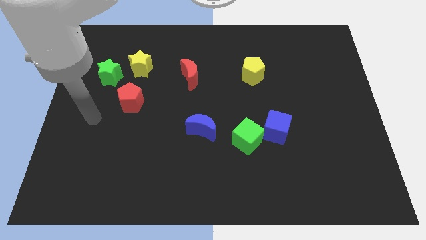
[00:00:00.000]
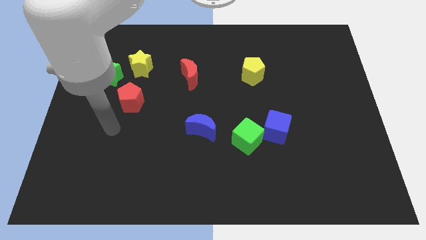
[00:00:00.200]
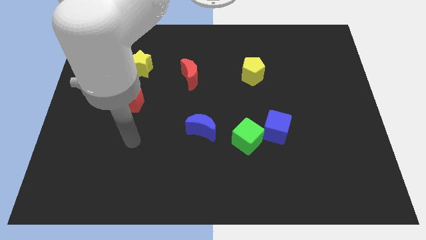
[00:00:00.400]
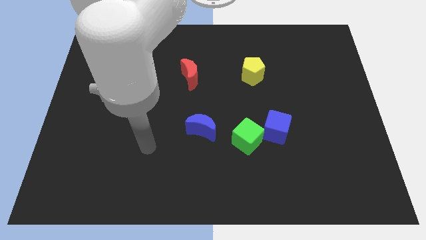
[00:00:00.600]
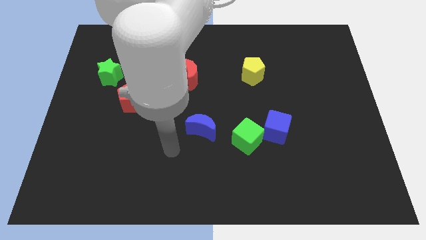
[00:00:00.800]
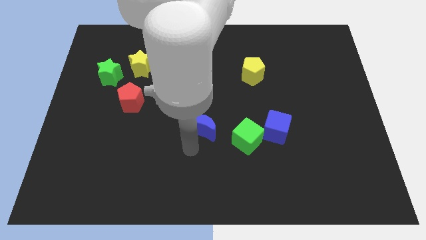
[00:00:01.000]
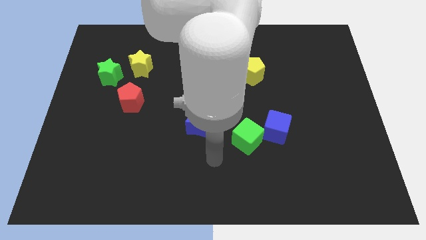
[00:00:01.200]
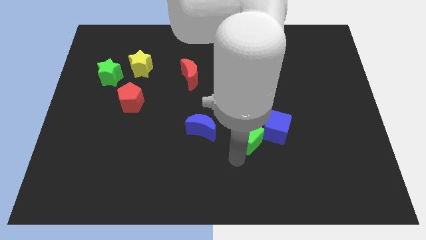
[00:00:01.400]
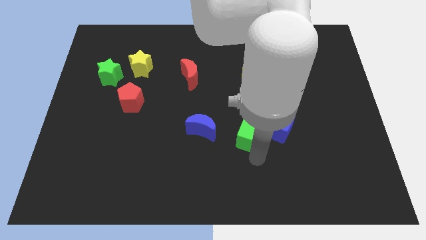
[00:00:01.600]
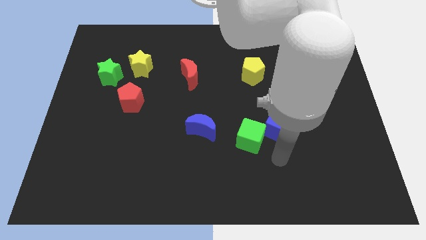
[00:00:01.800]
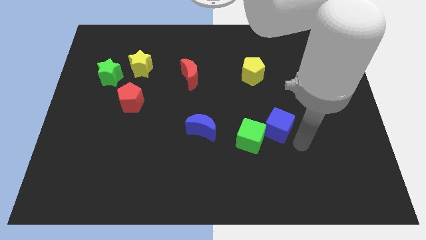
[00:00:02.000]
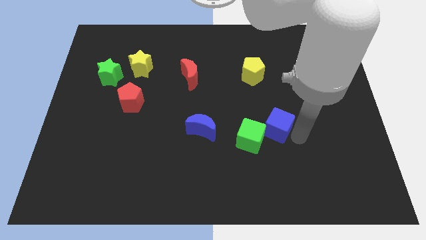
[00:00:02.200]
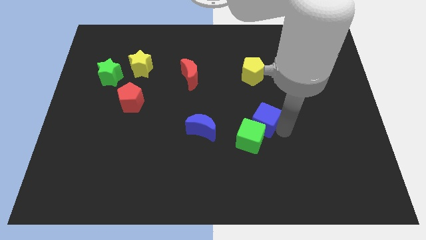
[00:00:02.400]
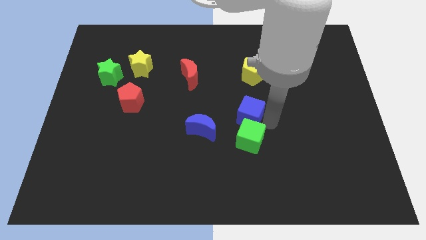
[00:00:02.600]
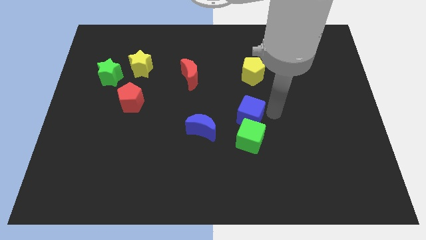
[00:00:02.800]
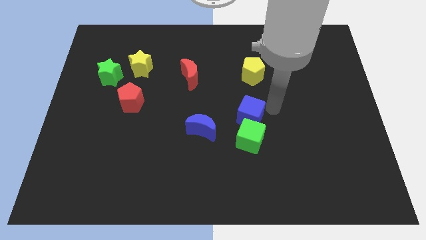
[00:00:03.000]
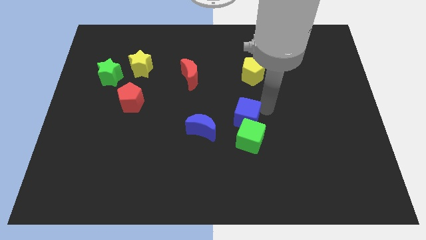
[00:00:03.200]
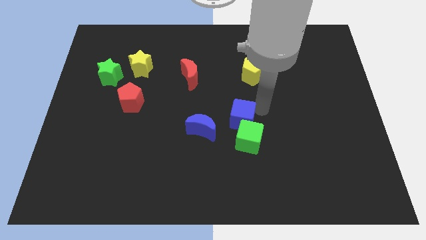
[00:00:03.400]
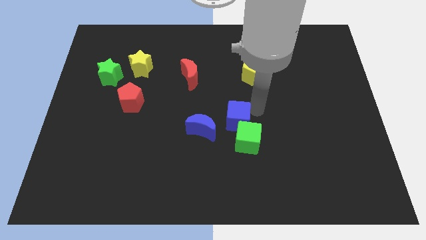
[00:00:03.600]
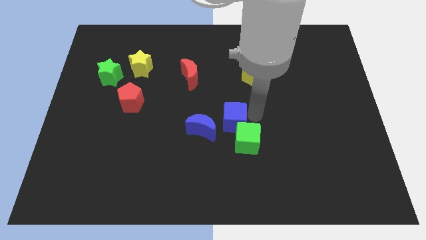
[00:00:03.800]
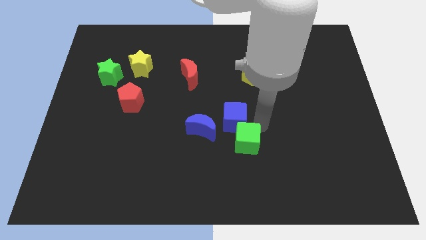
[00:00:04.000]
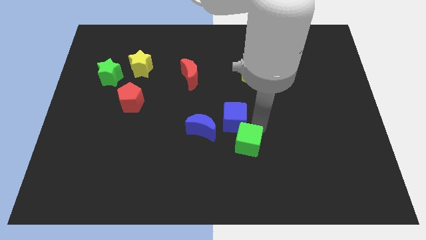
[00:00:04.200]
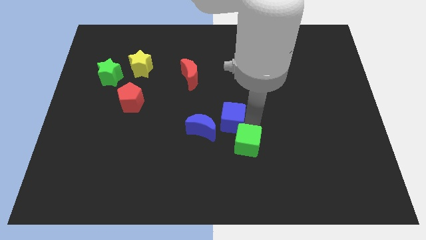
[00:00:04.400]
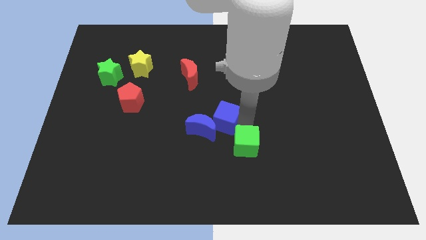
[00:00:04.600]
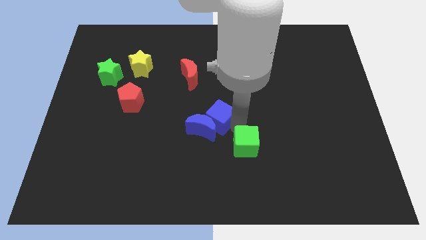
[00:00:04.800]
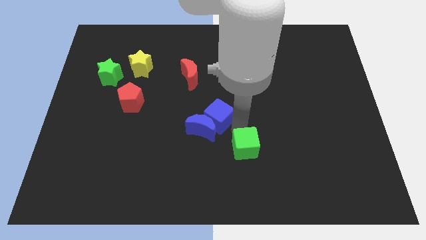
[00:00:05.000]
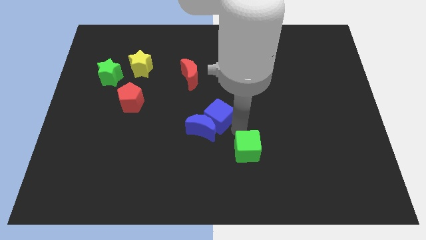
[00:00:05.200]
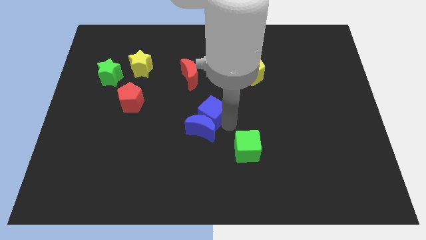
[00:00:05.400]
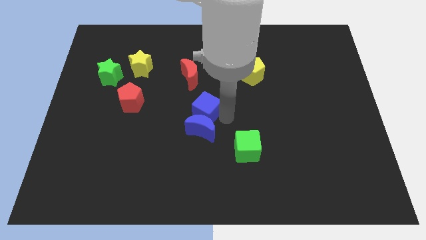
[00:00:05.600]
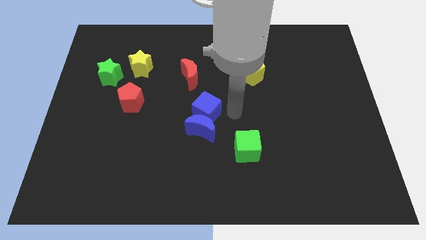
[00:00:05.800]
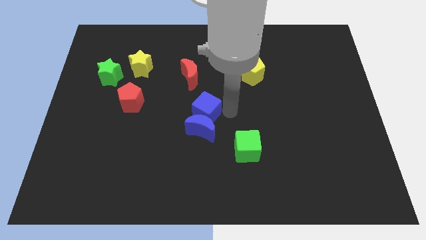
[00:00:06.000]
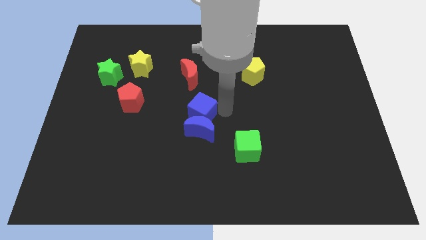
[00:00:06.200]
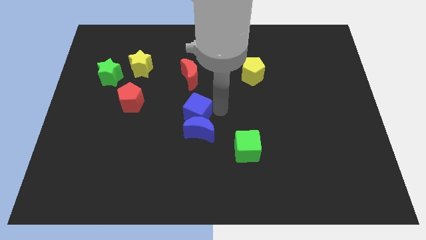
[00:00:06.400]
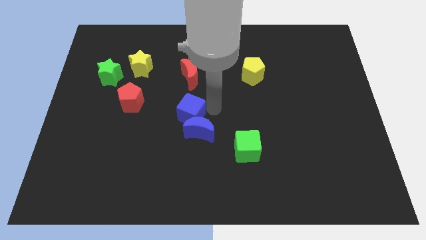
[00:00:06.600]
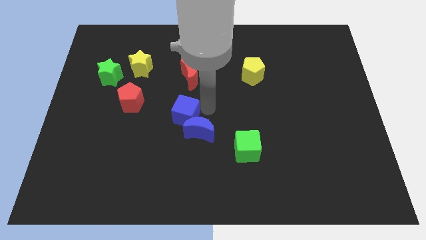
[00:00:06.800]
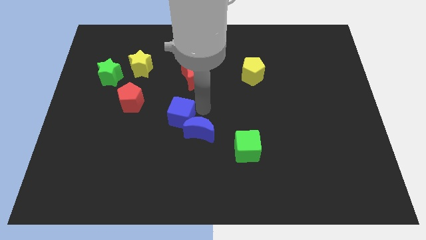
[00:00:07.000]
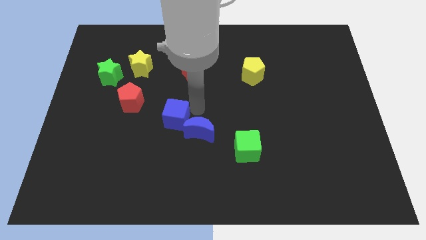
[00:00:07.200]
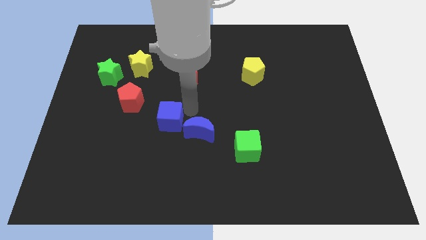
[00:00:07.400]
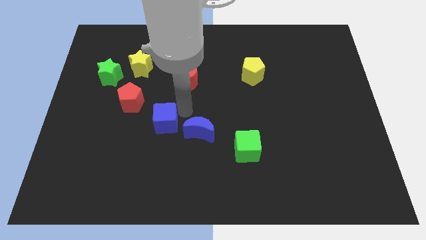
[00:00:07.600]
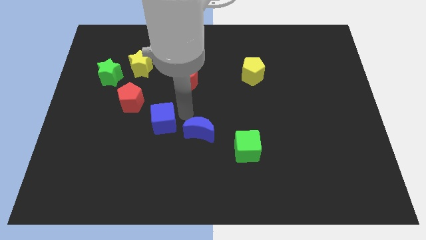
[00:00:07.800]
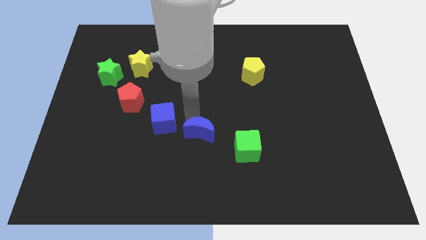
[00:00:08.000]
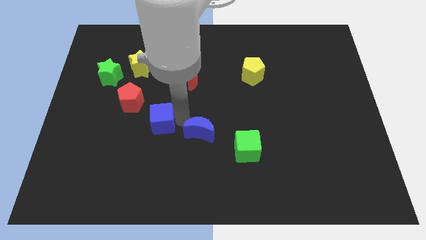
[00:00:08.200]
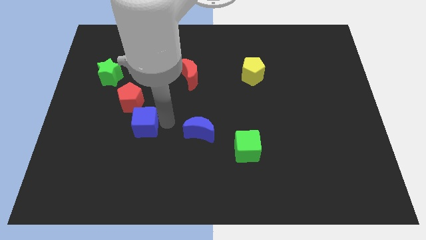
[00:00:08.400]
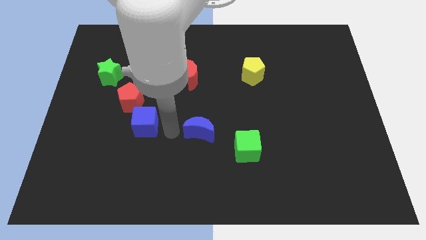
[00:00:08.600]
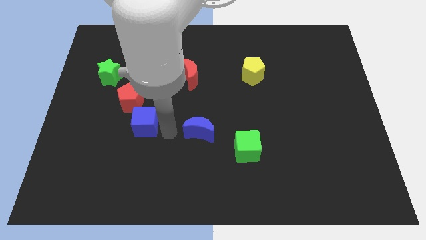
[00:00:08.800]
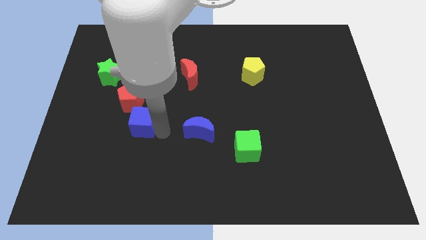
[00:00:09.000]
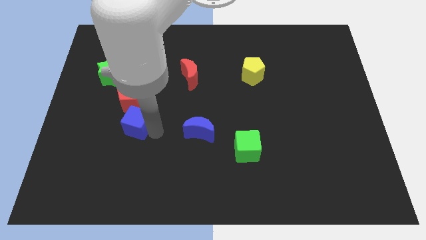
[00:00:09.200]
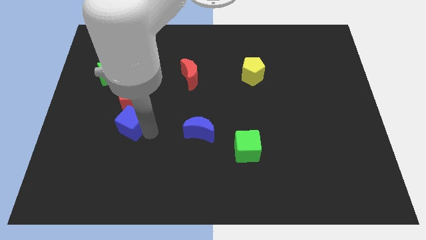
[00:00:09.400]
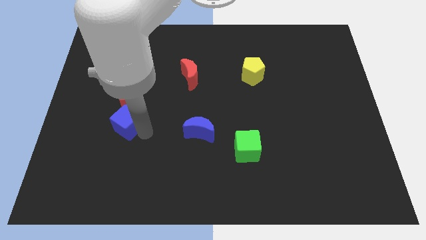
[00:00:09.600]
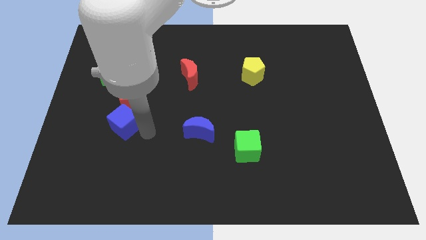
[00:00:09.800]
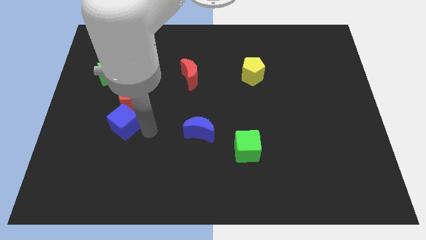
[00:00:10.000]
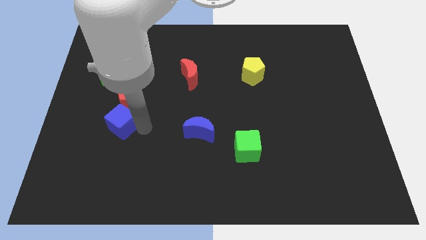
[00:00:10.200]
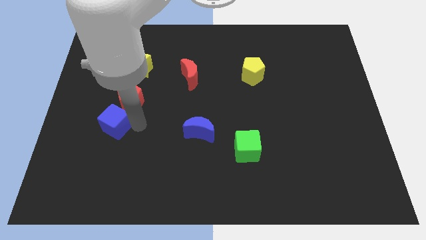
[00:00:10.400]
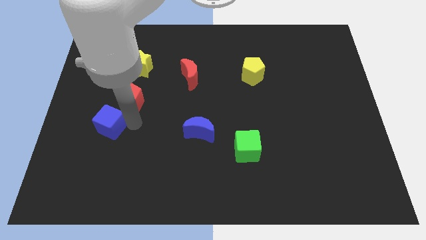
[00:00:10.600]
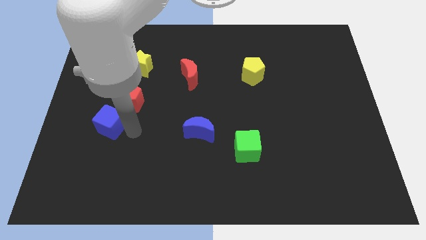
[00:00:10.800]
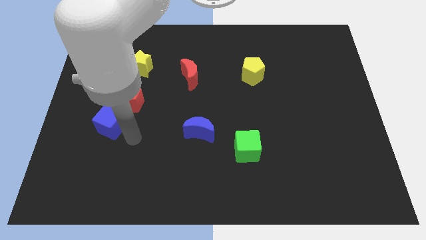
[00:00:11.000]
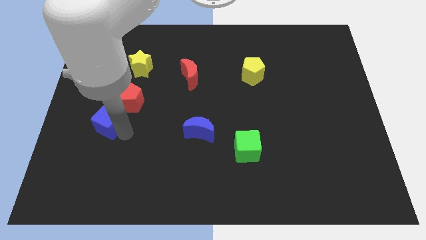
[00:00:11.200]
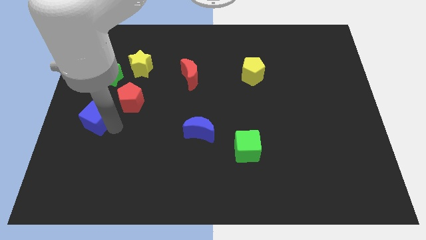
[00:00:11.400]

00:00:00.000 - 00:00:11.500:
move the blue cube to the left side
